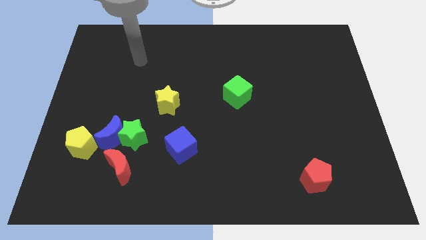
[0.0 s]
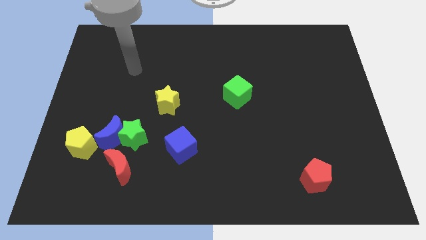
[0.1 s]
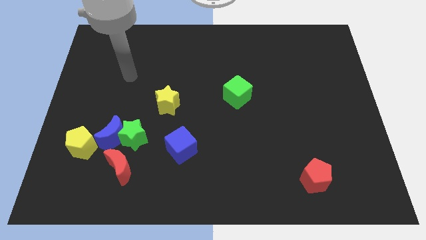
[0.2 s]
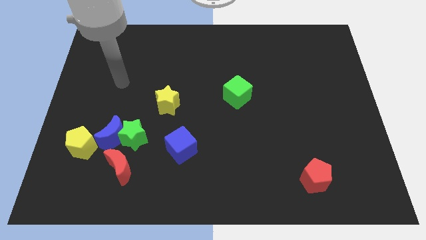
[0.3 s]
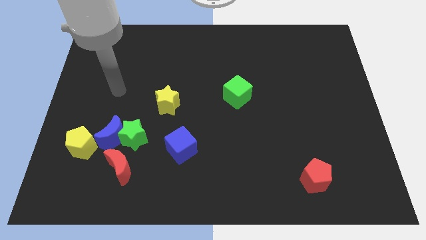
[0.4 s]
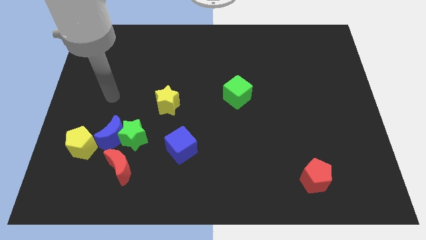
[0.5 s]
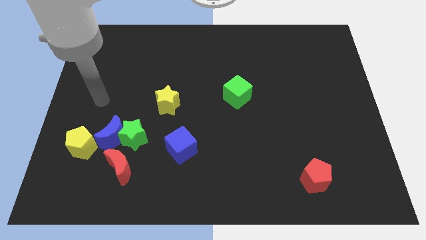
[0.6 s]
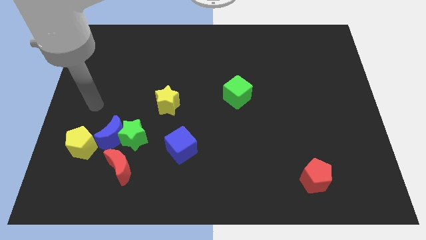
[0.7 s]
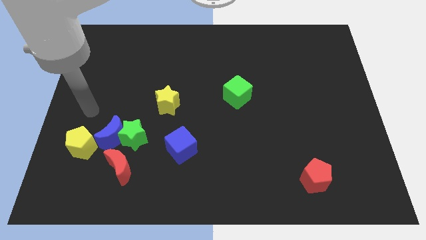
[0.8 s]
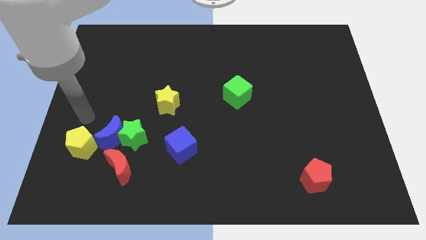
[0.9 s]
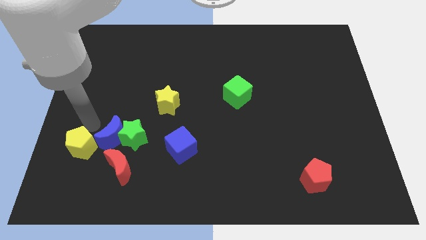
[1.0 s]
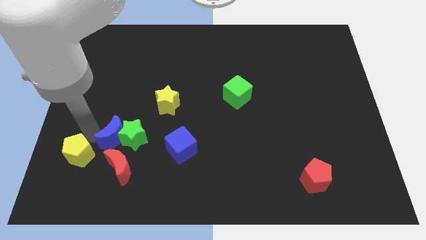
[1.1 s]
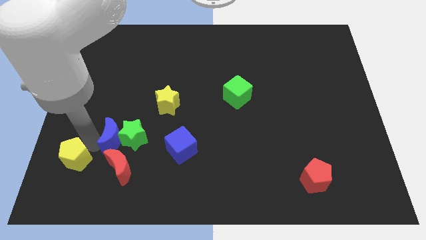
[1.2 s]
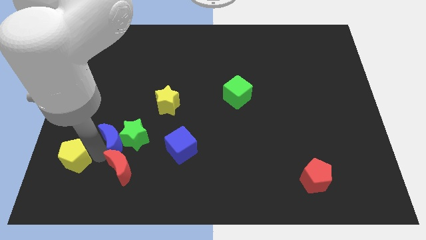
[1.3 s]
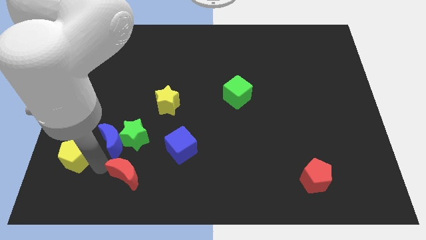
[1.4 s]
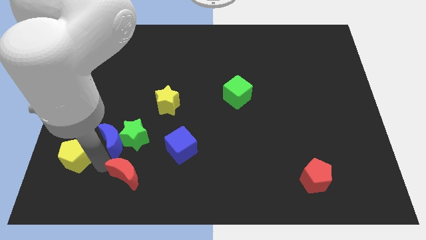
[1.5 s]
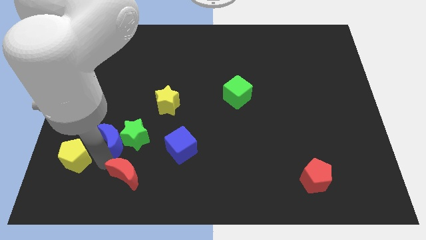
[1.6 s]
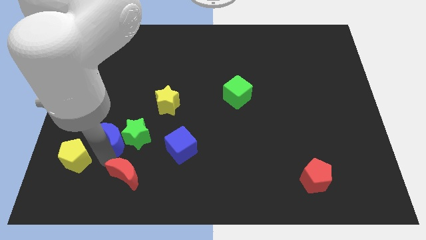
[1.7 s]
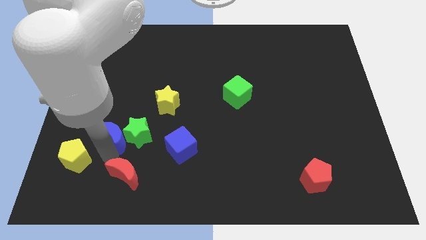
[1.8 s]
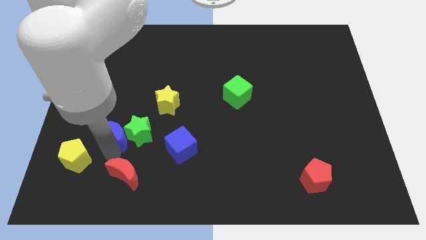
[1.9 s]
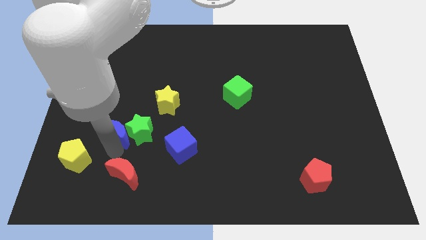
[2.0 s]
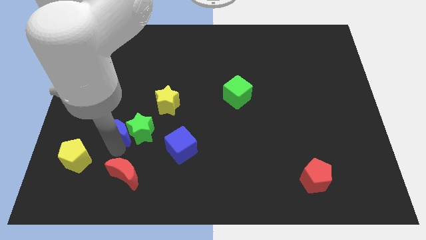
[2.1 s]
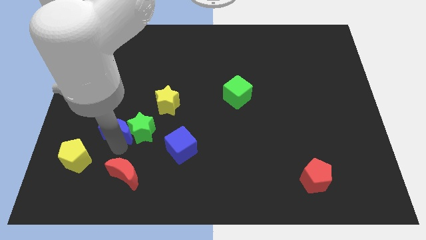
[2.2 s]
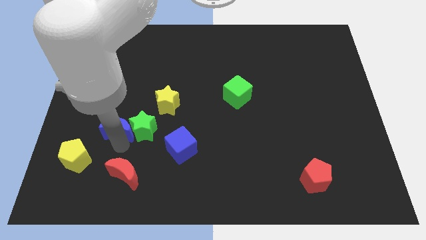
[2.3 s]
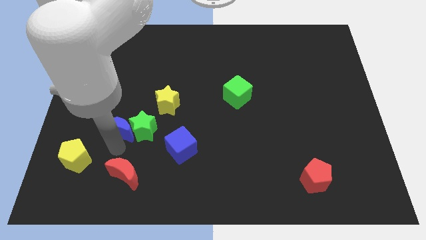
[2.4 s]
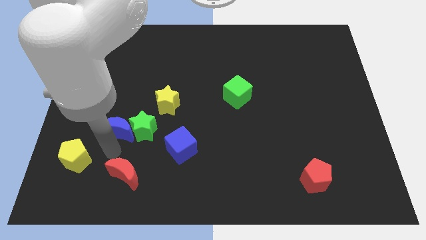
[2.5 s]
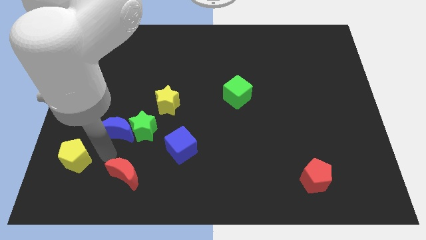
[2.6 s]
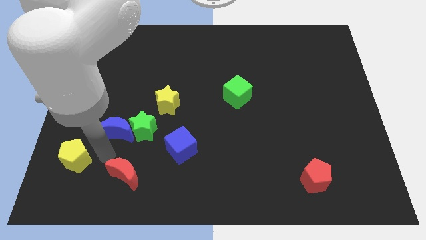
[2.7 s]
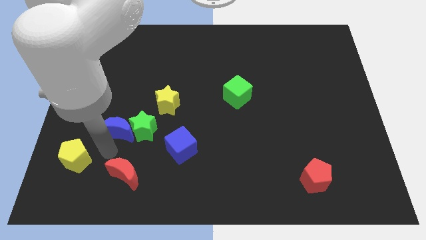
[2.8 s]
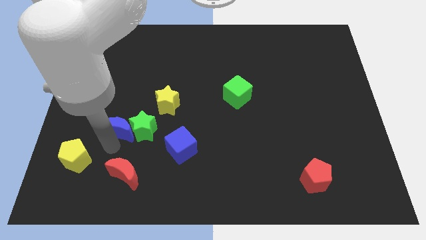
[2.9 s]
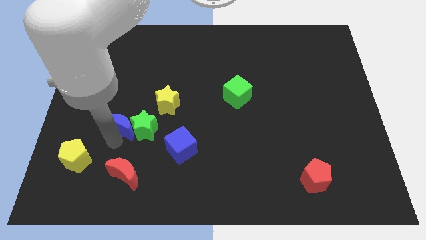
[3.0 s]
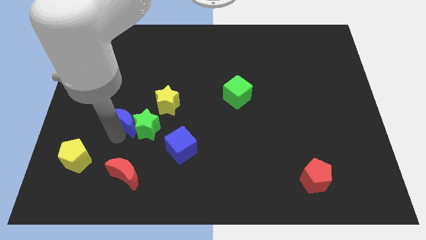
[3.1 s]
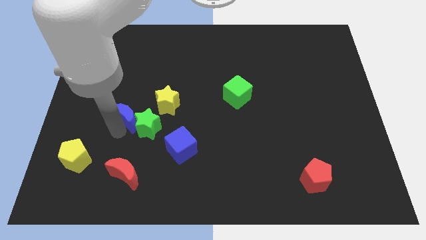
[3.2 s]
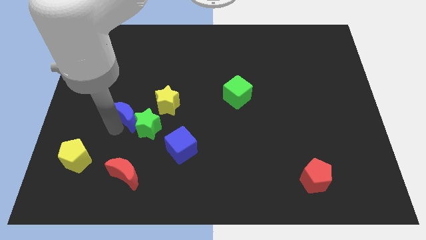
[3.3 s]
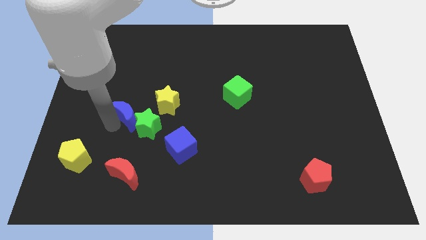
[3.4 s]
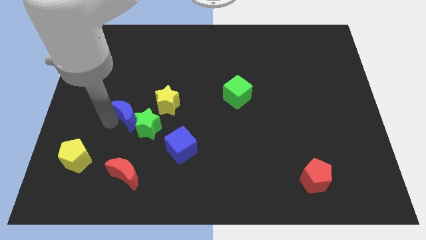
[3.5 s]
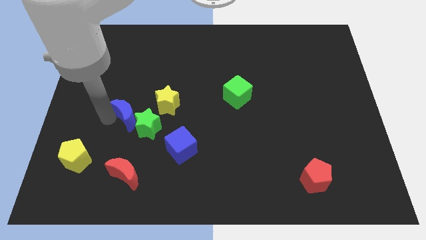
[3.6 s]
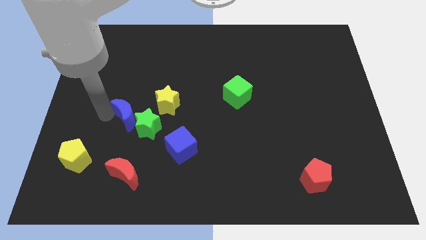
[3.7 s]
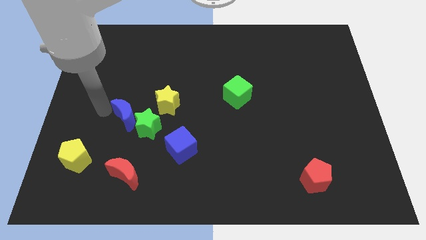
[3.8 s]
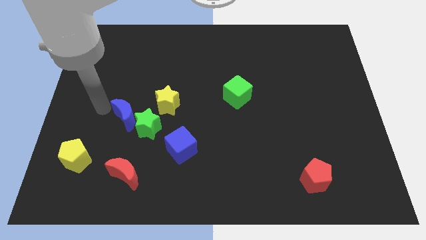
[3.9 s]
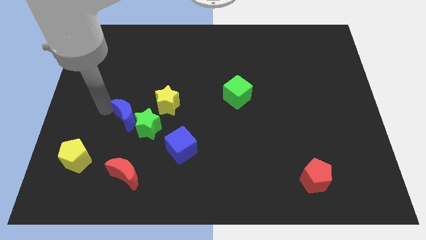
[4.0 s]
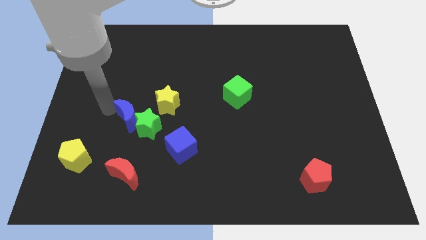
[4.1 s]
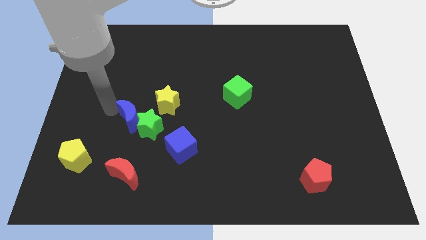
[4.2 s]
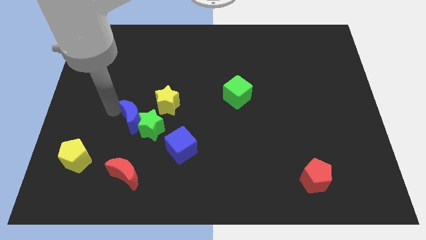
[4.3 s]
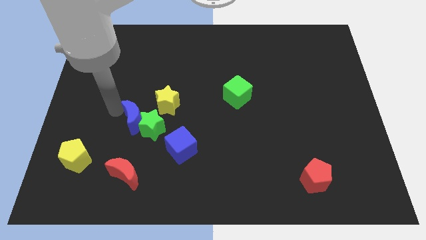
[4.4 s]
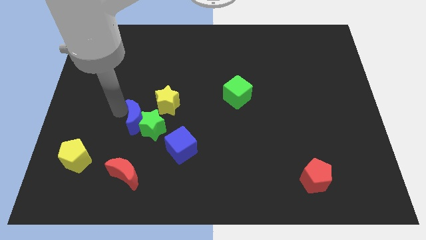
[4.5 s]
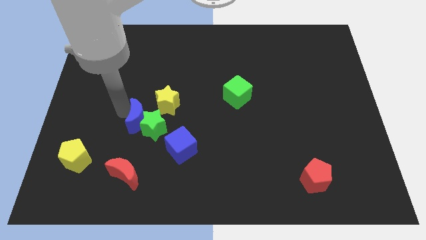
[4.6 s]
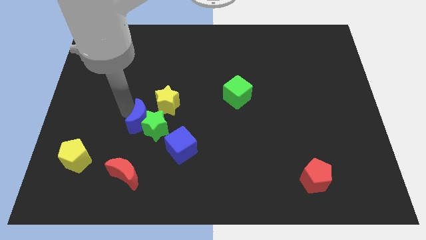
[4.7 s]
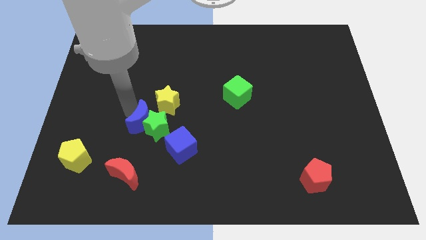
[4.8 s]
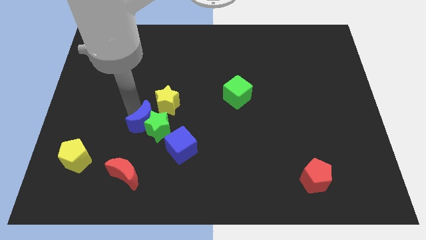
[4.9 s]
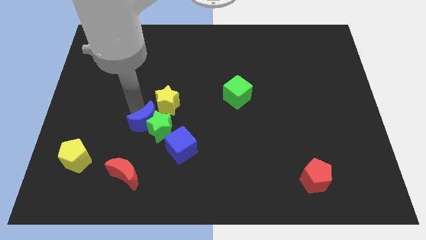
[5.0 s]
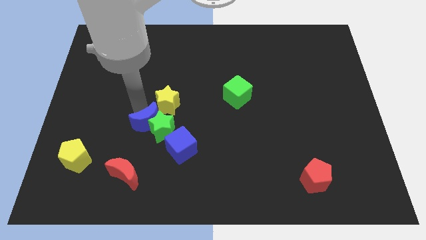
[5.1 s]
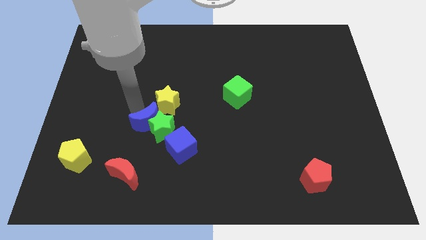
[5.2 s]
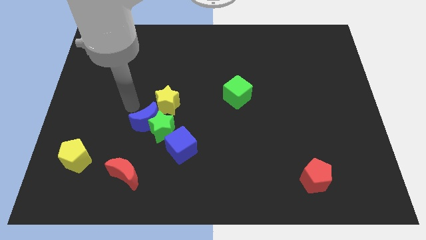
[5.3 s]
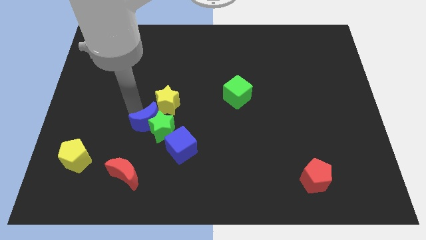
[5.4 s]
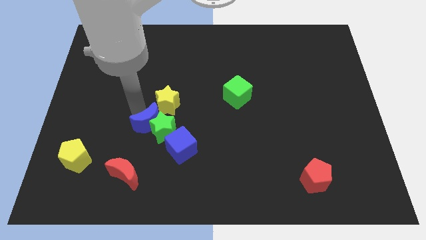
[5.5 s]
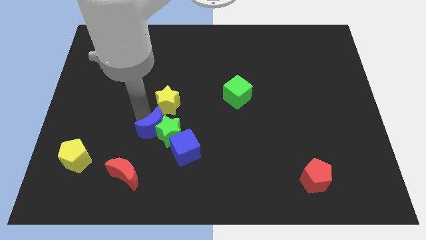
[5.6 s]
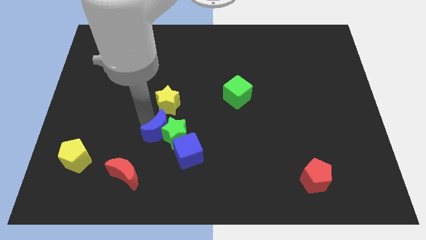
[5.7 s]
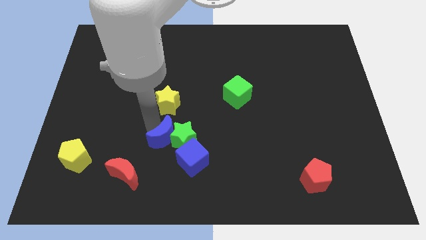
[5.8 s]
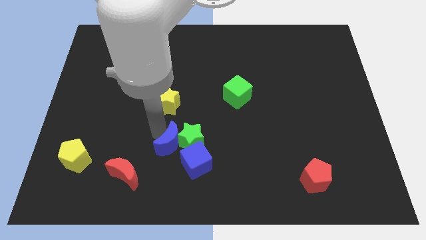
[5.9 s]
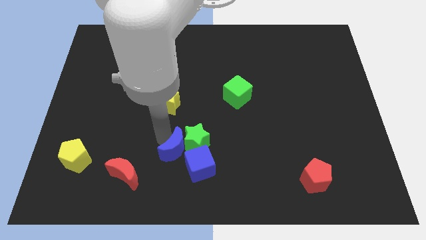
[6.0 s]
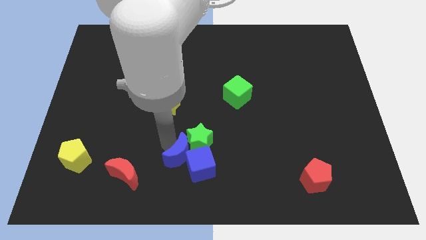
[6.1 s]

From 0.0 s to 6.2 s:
put the blue moon to the blue cube
